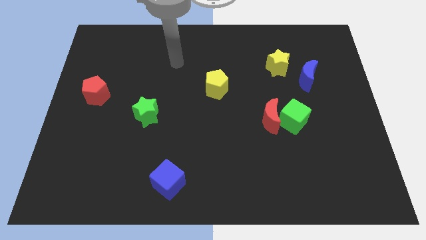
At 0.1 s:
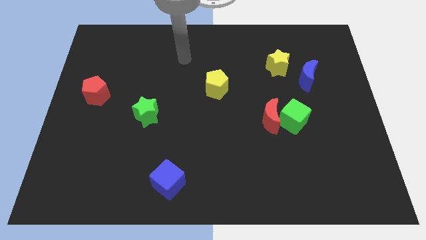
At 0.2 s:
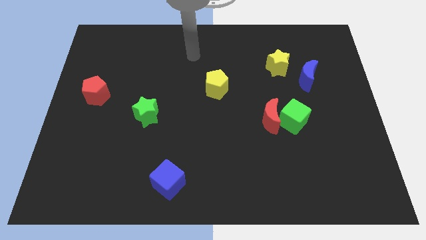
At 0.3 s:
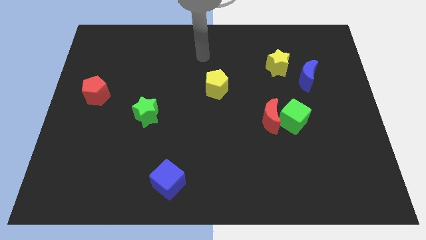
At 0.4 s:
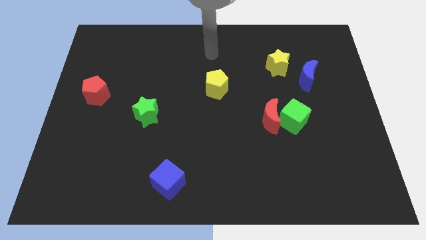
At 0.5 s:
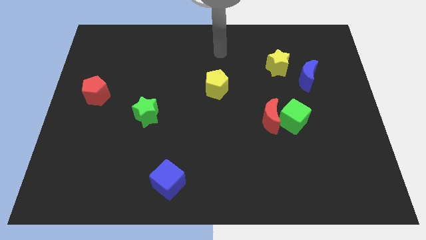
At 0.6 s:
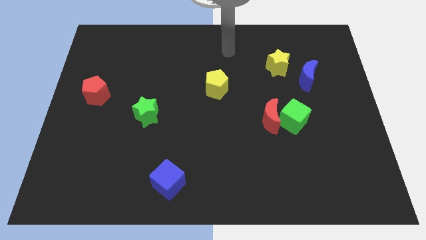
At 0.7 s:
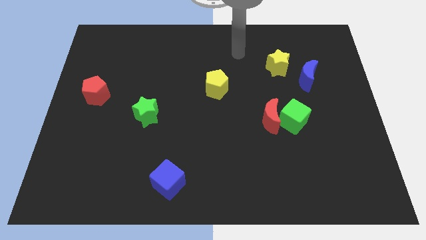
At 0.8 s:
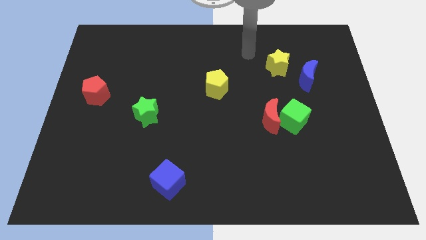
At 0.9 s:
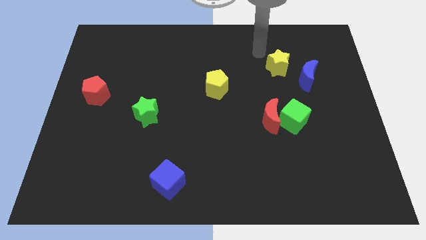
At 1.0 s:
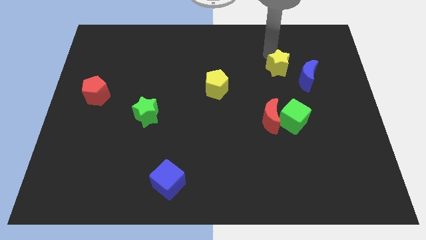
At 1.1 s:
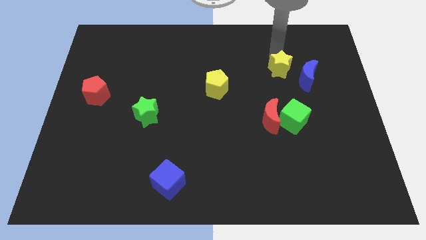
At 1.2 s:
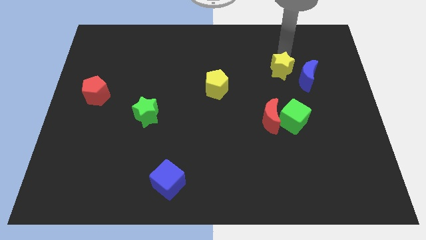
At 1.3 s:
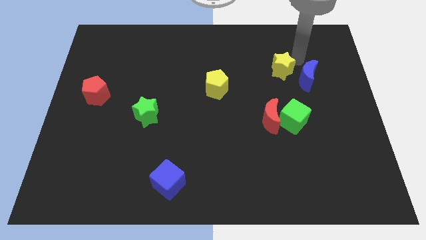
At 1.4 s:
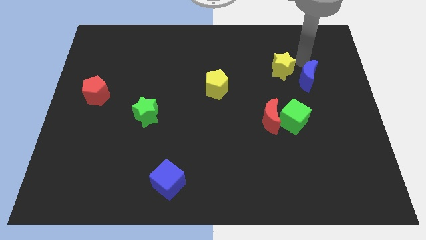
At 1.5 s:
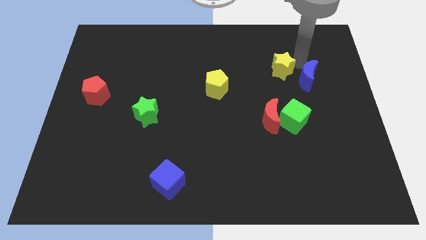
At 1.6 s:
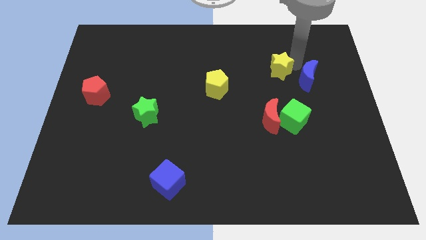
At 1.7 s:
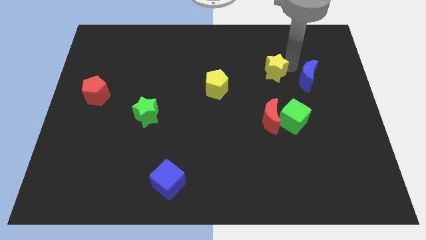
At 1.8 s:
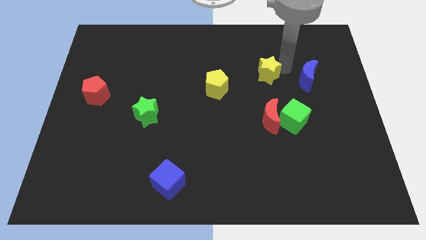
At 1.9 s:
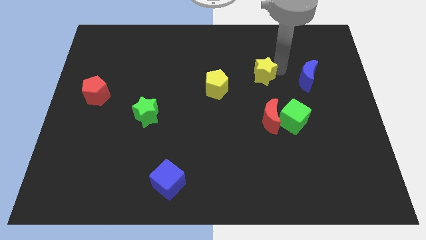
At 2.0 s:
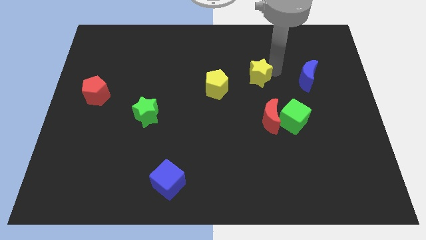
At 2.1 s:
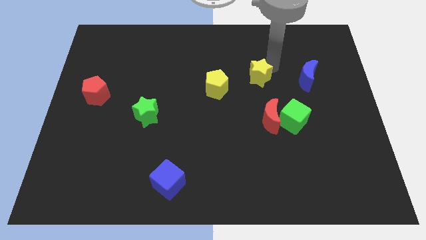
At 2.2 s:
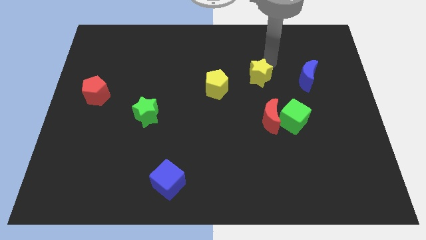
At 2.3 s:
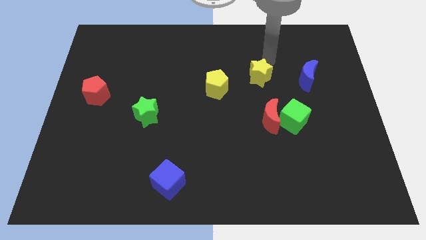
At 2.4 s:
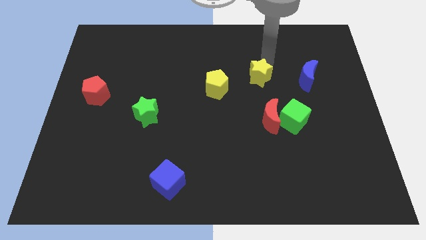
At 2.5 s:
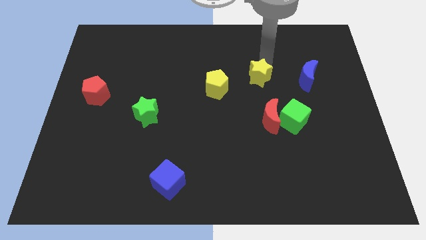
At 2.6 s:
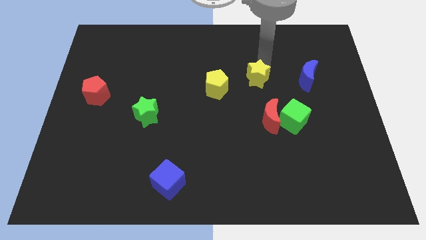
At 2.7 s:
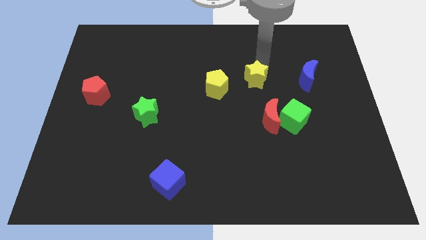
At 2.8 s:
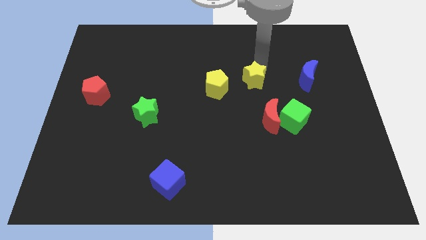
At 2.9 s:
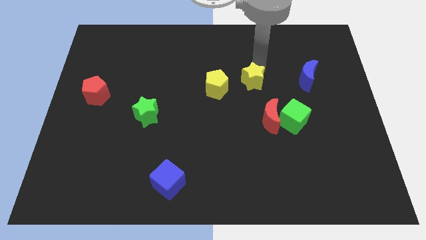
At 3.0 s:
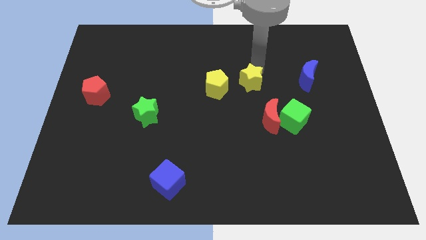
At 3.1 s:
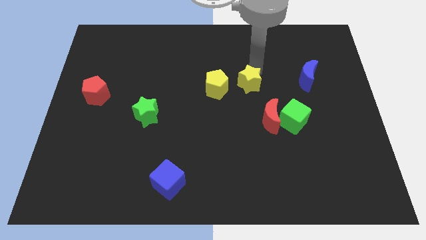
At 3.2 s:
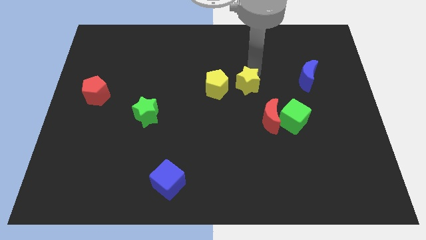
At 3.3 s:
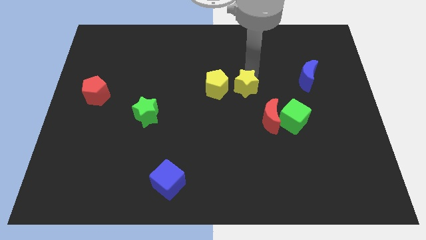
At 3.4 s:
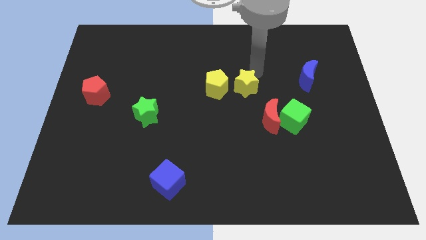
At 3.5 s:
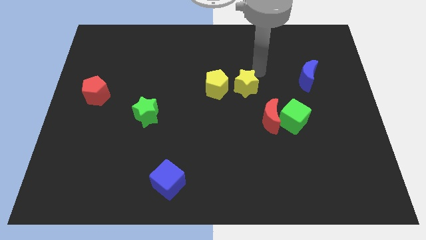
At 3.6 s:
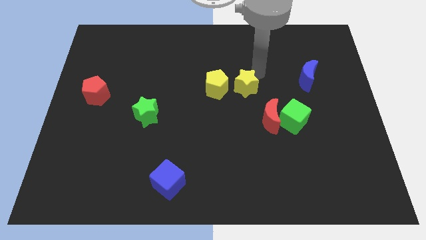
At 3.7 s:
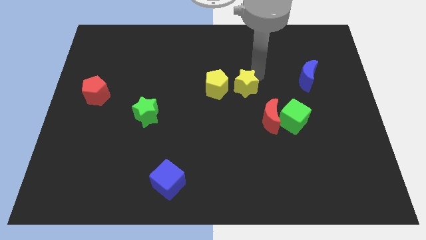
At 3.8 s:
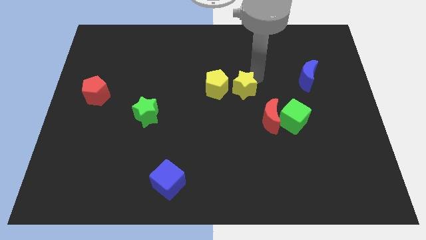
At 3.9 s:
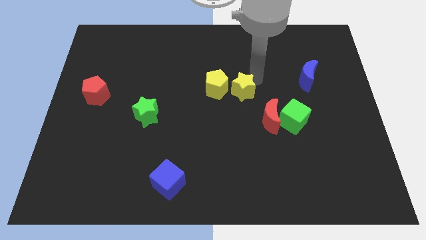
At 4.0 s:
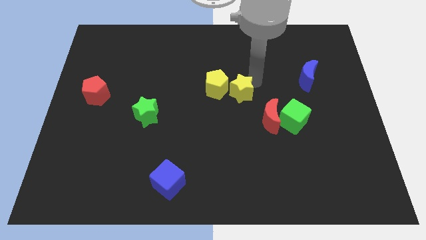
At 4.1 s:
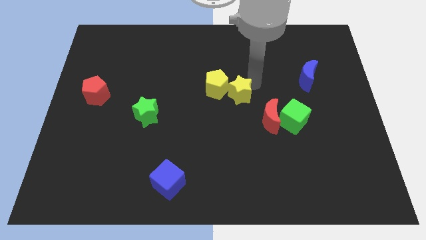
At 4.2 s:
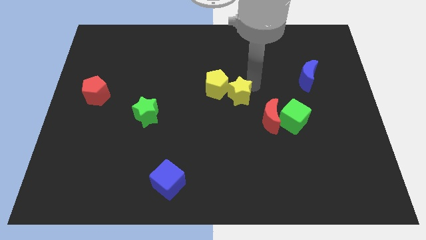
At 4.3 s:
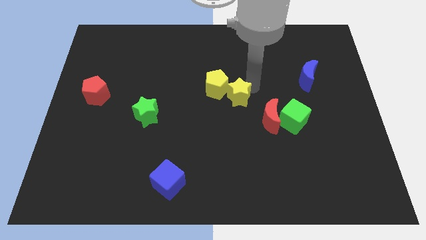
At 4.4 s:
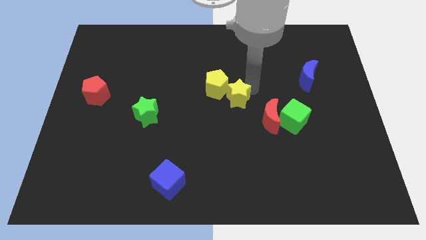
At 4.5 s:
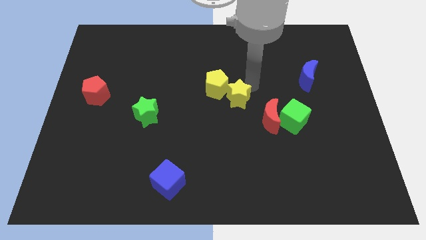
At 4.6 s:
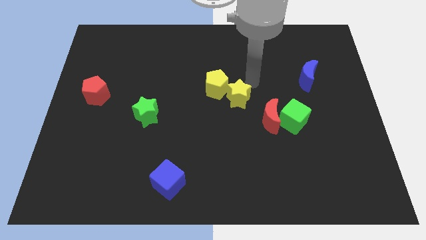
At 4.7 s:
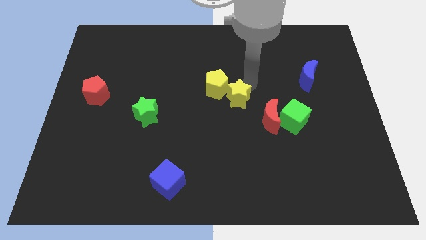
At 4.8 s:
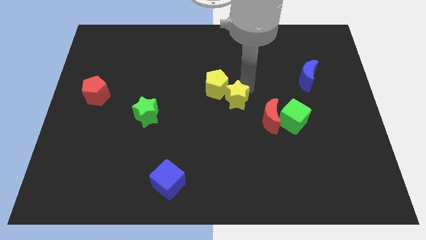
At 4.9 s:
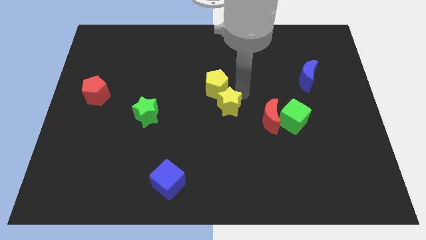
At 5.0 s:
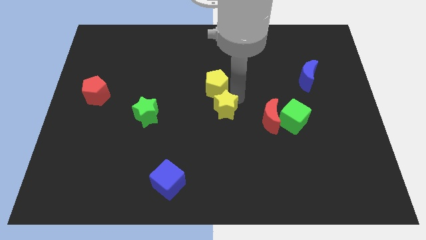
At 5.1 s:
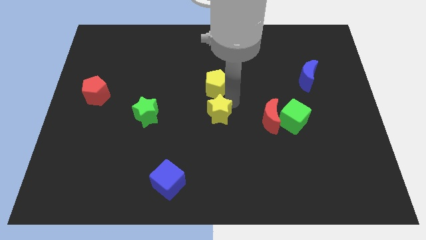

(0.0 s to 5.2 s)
push the yellow star downwards and left diagonally

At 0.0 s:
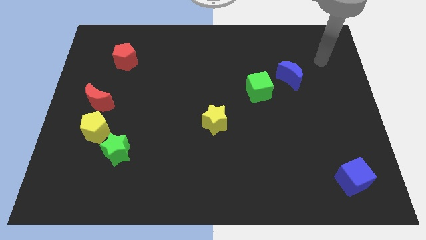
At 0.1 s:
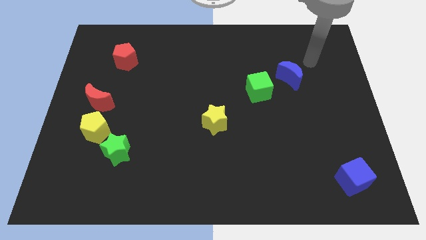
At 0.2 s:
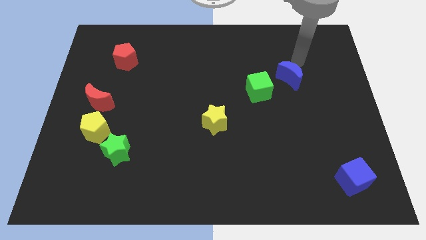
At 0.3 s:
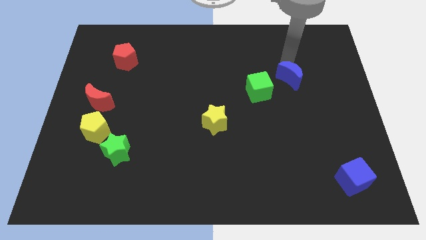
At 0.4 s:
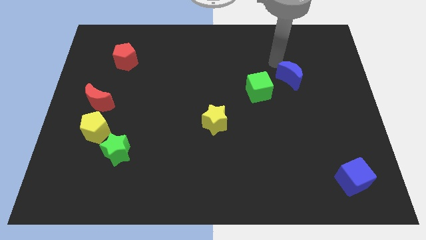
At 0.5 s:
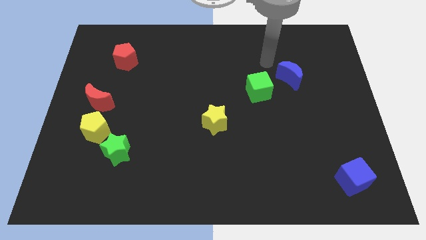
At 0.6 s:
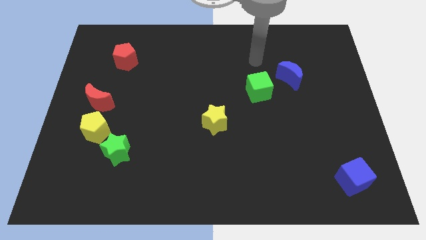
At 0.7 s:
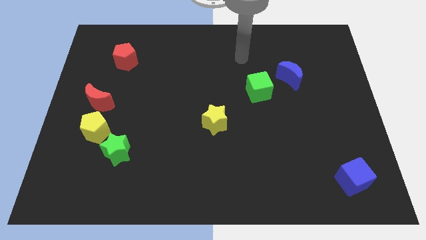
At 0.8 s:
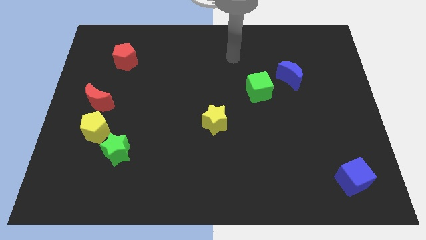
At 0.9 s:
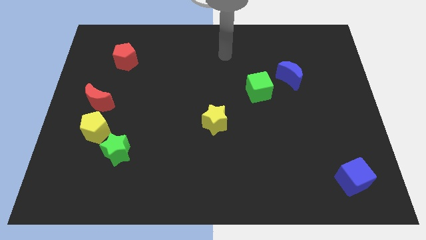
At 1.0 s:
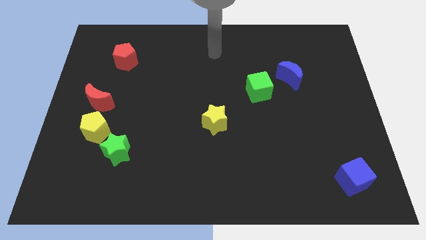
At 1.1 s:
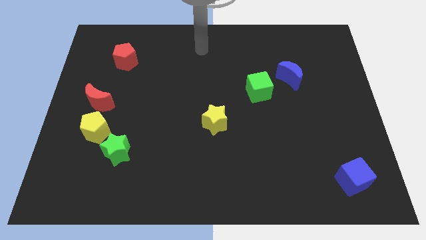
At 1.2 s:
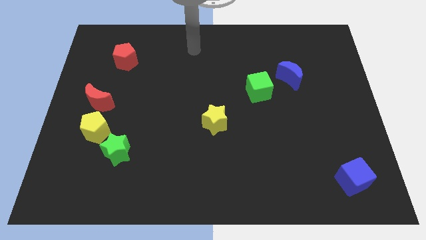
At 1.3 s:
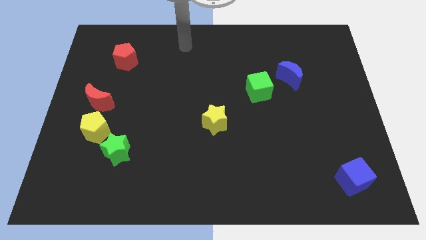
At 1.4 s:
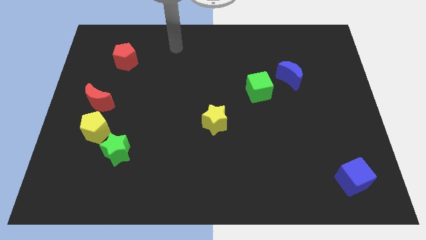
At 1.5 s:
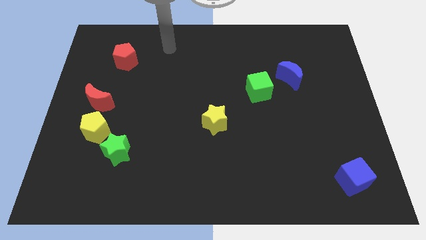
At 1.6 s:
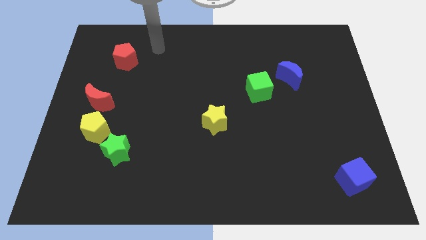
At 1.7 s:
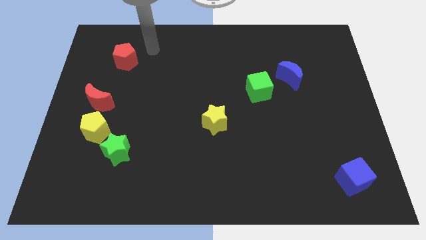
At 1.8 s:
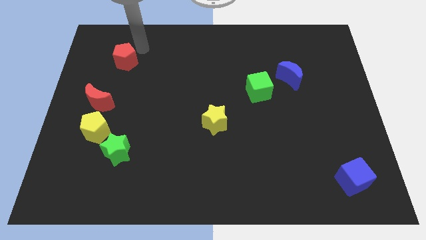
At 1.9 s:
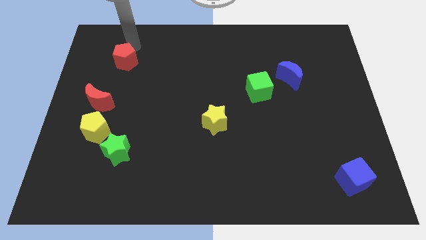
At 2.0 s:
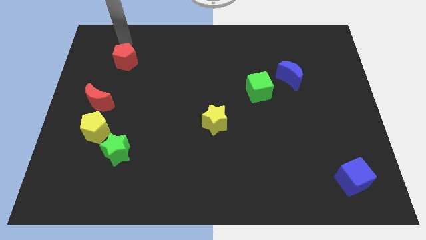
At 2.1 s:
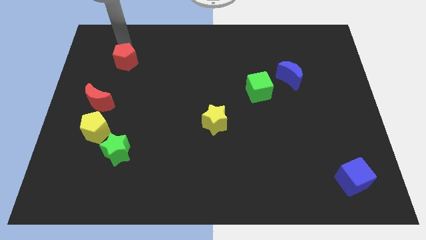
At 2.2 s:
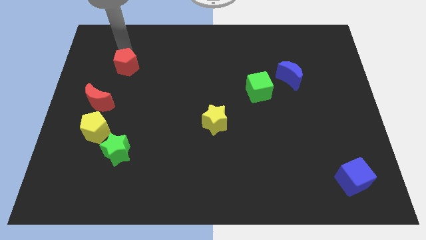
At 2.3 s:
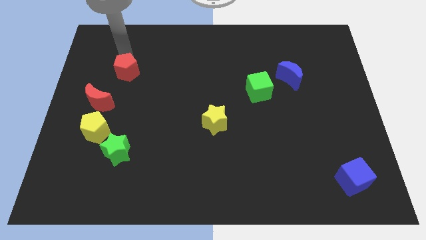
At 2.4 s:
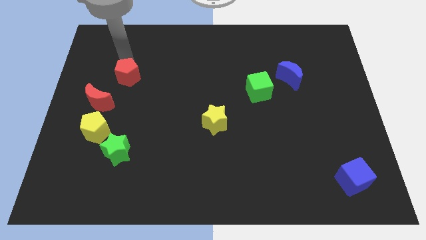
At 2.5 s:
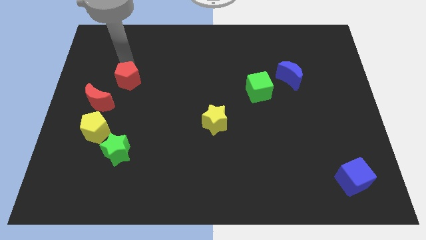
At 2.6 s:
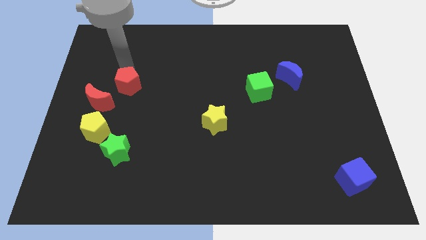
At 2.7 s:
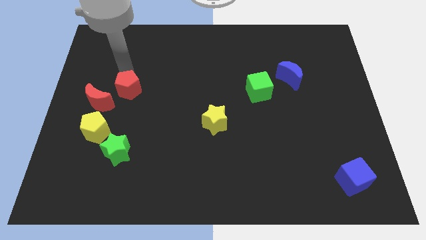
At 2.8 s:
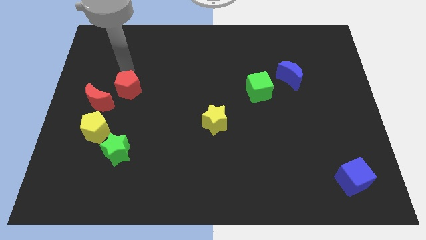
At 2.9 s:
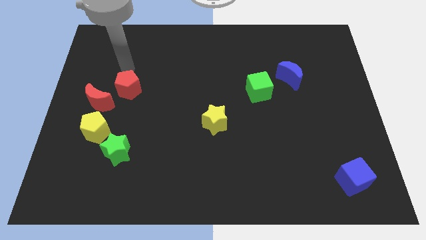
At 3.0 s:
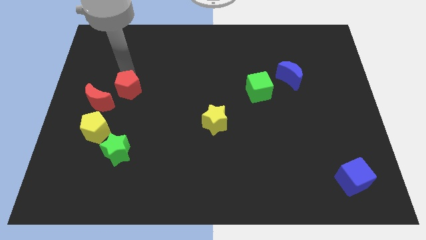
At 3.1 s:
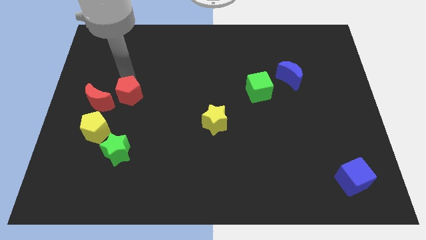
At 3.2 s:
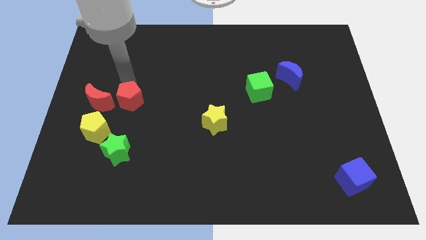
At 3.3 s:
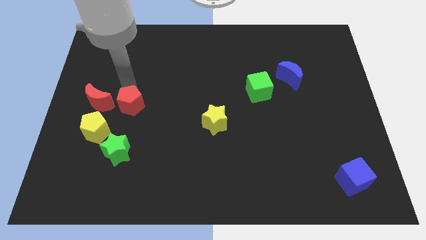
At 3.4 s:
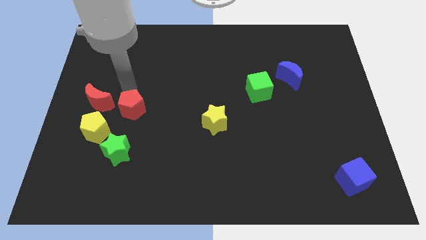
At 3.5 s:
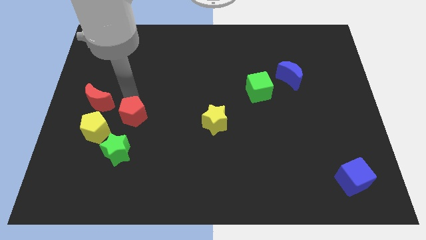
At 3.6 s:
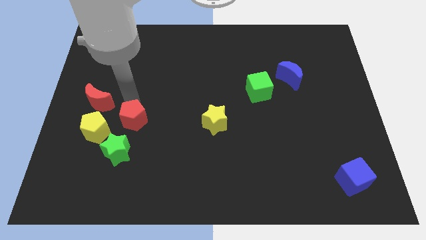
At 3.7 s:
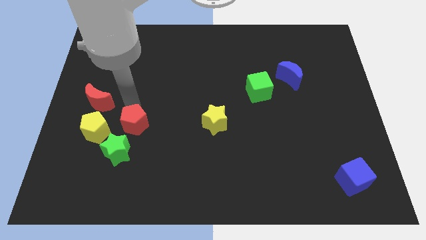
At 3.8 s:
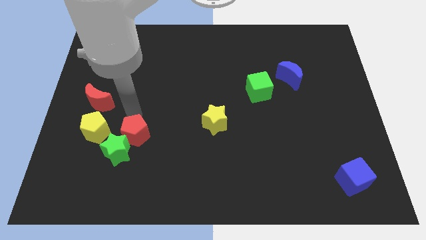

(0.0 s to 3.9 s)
push the red pentagon down
